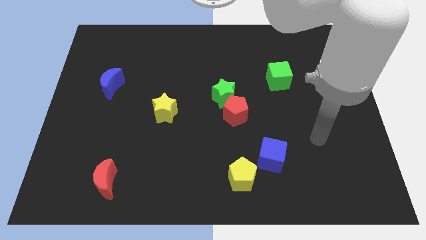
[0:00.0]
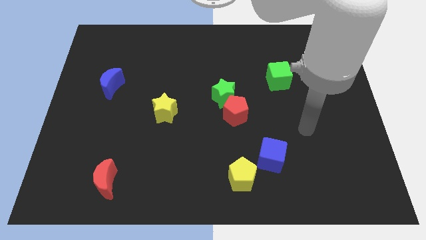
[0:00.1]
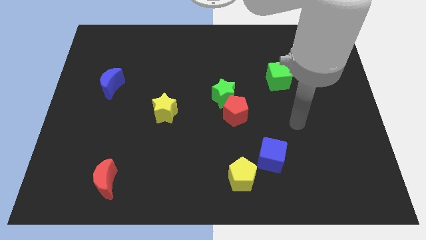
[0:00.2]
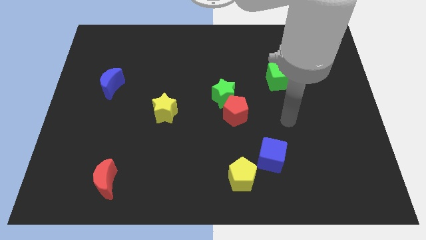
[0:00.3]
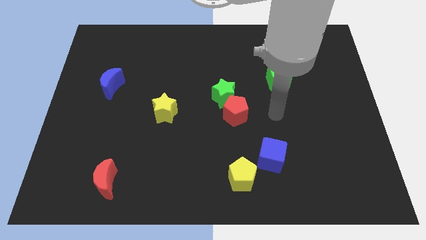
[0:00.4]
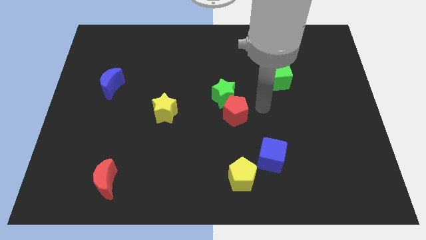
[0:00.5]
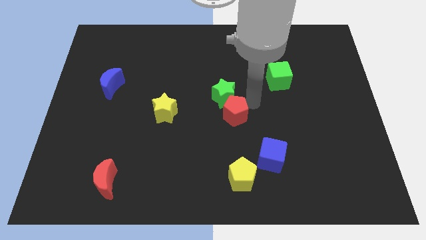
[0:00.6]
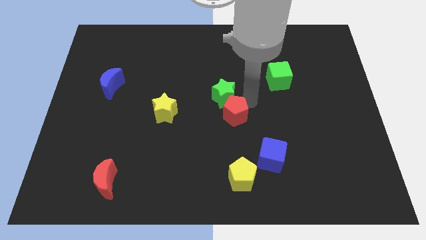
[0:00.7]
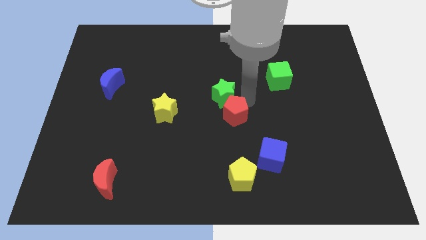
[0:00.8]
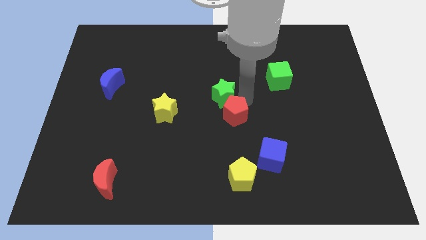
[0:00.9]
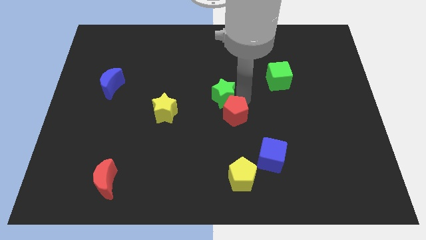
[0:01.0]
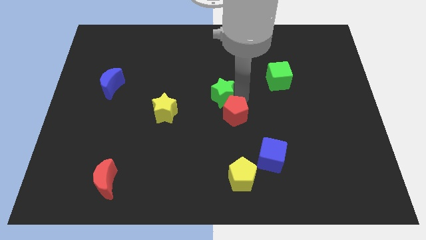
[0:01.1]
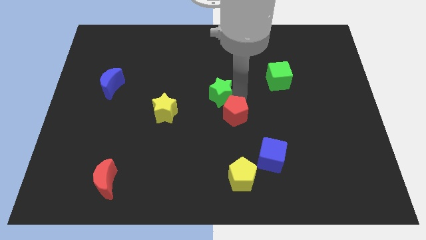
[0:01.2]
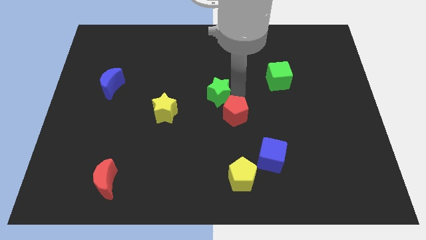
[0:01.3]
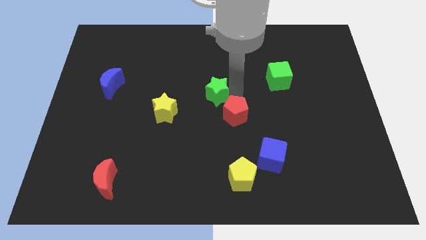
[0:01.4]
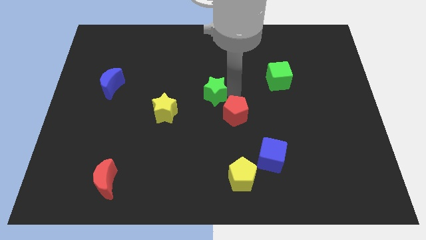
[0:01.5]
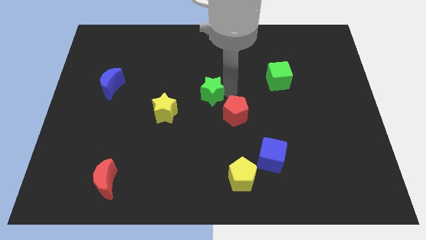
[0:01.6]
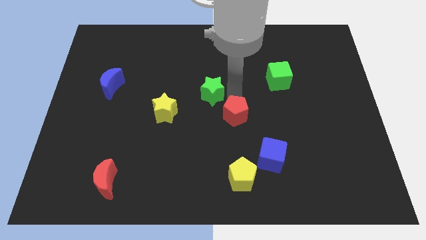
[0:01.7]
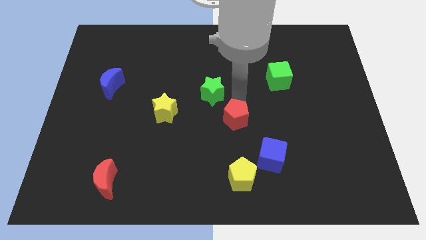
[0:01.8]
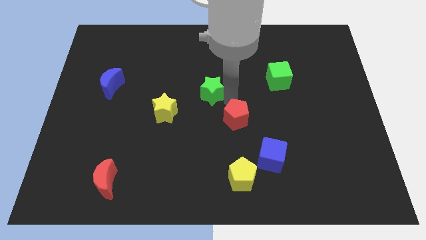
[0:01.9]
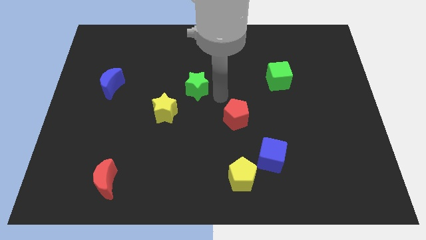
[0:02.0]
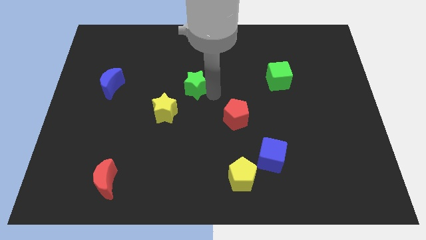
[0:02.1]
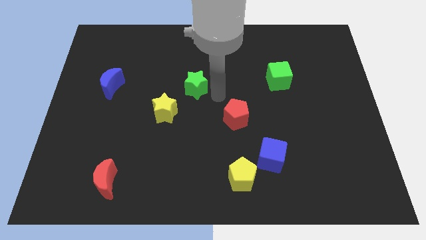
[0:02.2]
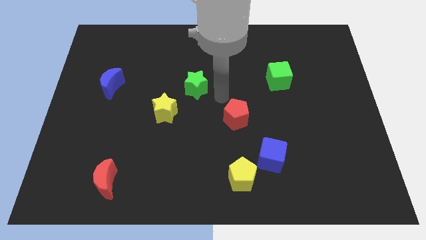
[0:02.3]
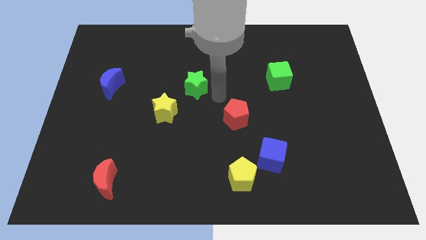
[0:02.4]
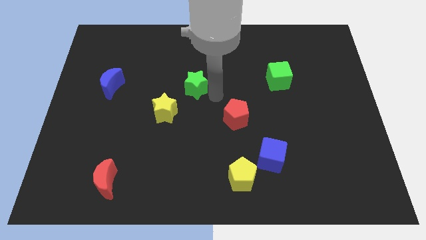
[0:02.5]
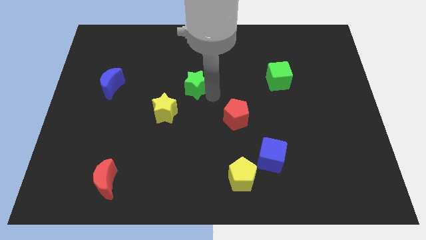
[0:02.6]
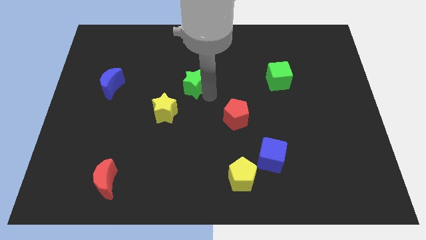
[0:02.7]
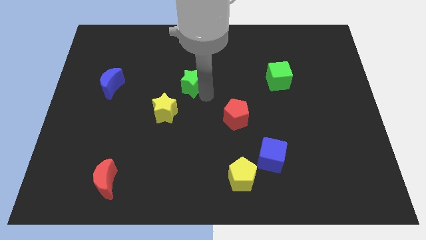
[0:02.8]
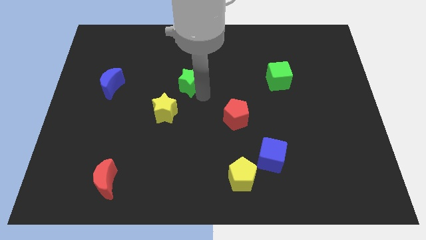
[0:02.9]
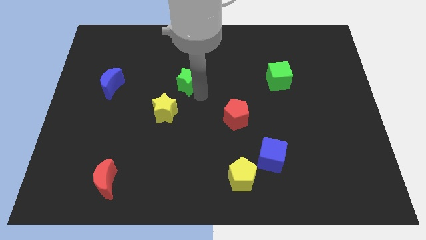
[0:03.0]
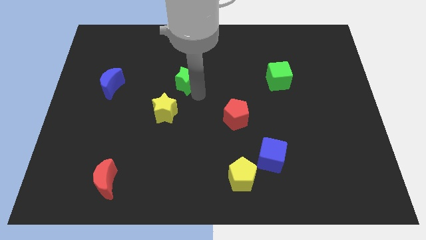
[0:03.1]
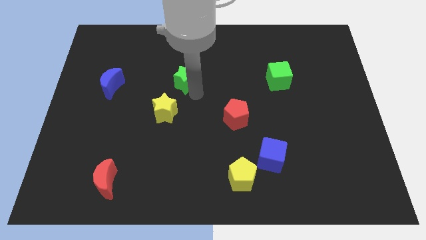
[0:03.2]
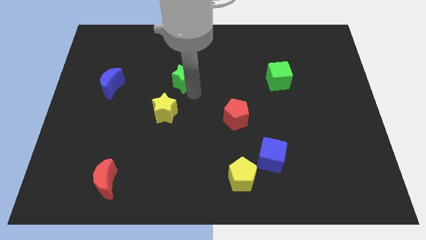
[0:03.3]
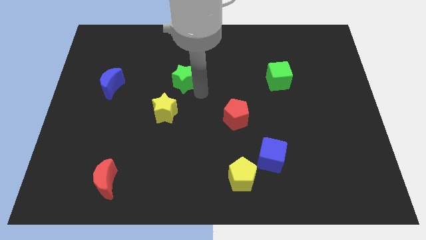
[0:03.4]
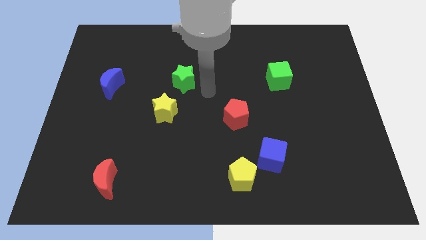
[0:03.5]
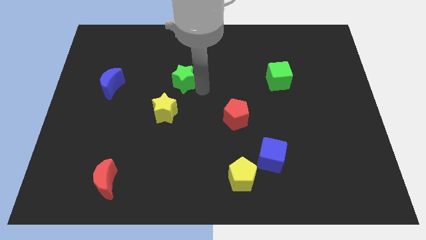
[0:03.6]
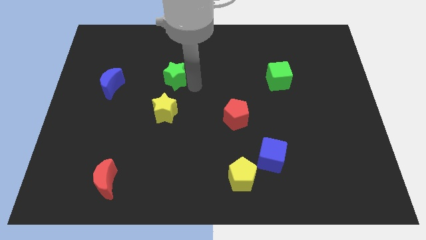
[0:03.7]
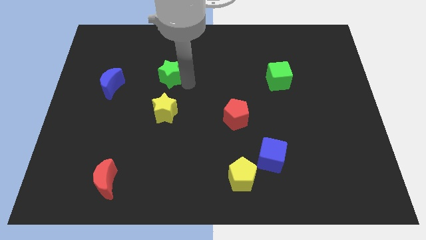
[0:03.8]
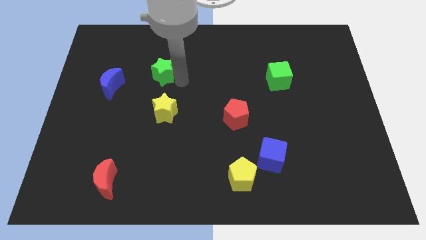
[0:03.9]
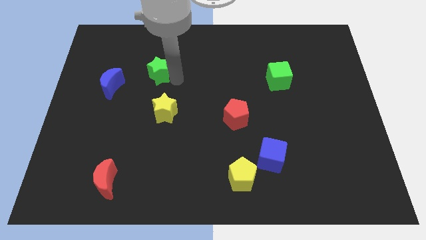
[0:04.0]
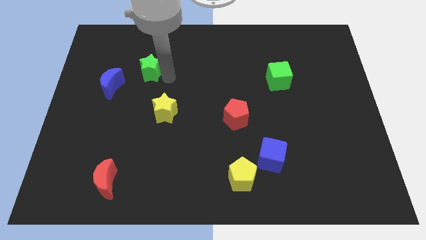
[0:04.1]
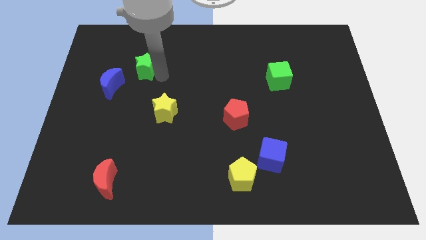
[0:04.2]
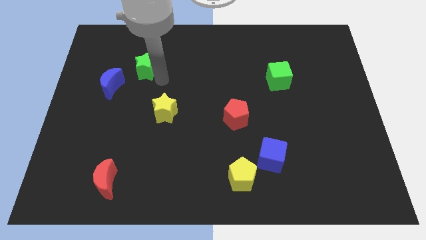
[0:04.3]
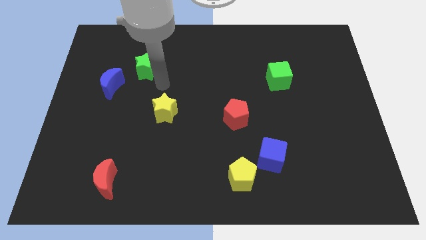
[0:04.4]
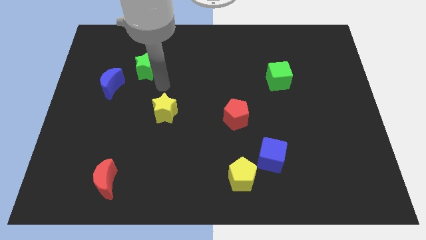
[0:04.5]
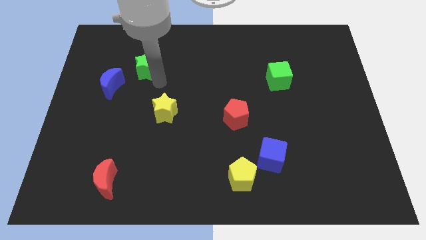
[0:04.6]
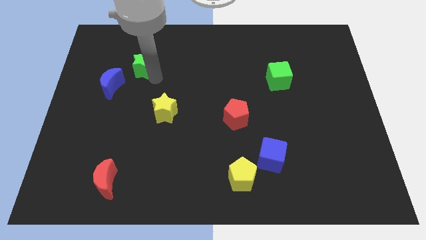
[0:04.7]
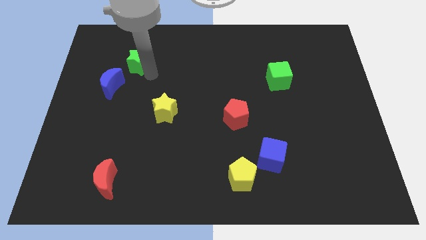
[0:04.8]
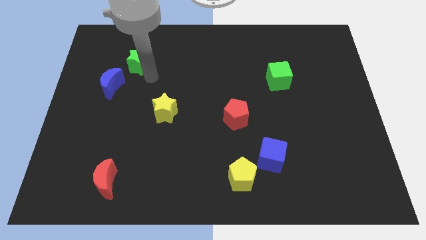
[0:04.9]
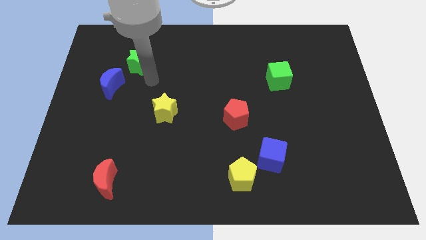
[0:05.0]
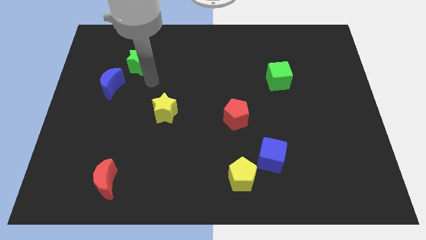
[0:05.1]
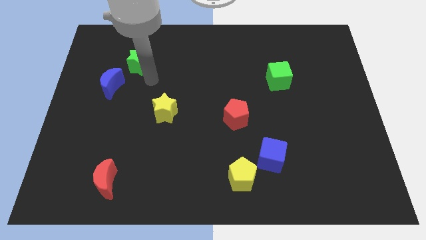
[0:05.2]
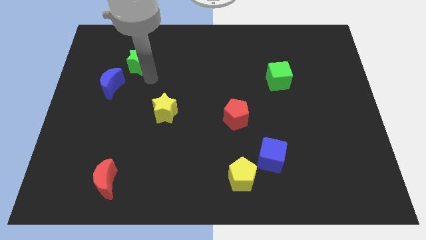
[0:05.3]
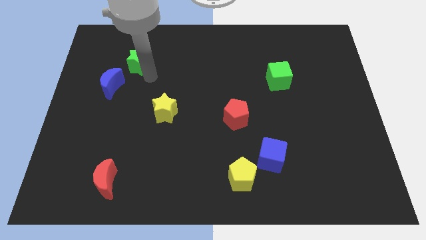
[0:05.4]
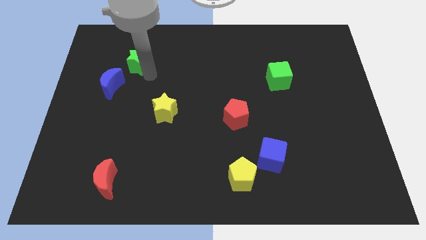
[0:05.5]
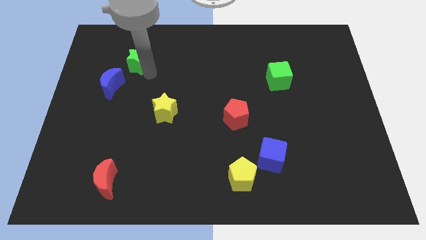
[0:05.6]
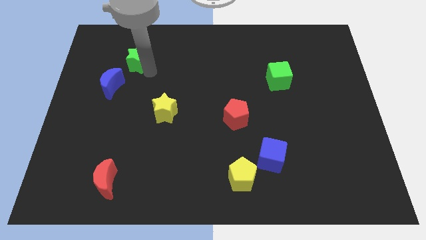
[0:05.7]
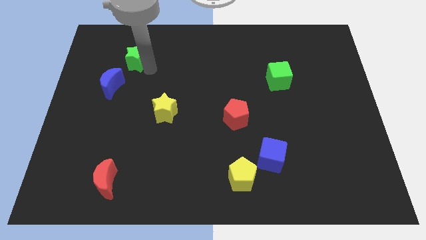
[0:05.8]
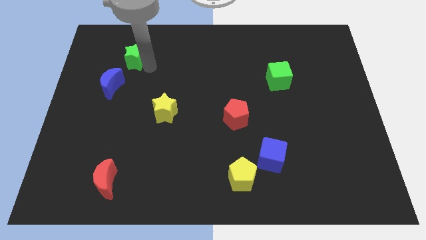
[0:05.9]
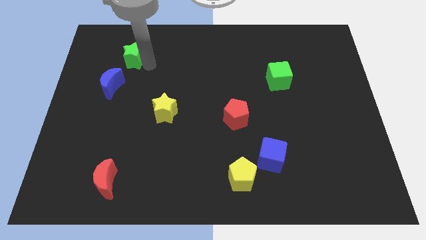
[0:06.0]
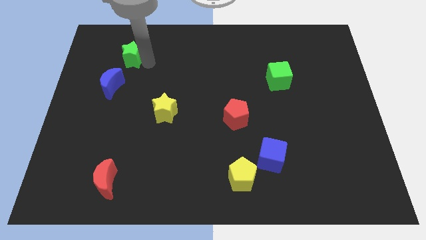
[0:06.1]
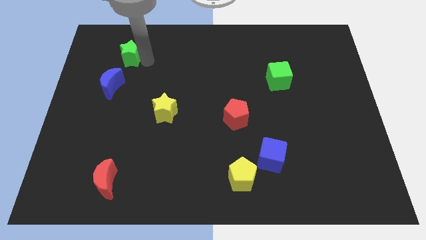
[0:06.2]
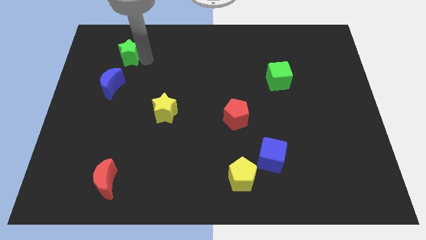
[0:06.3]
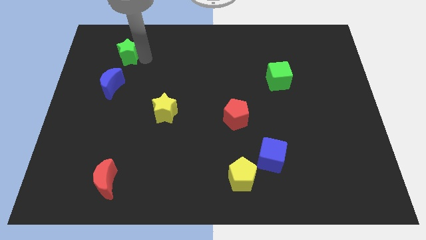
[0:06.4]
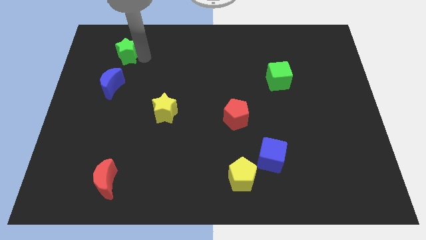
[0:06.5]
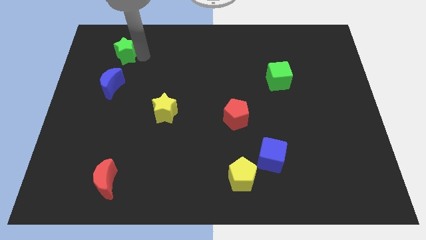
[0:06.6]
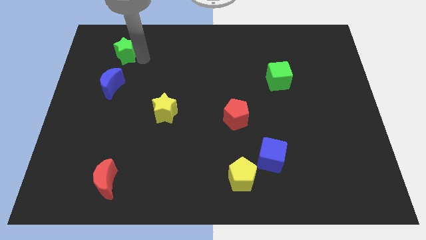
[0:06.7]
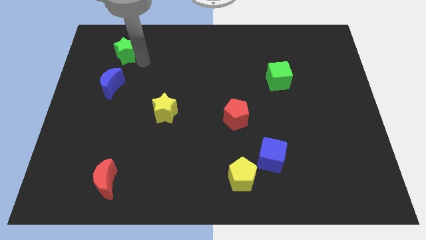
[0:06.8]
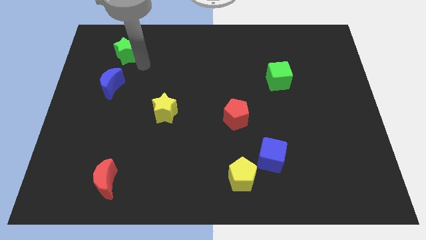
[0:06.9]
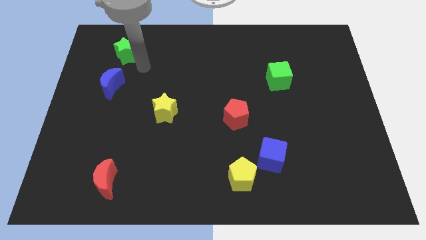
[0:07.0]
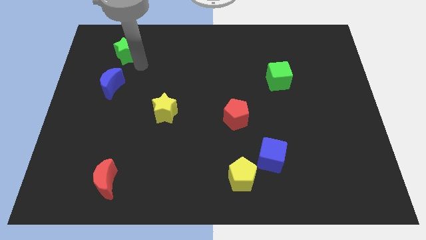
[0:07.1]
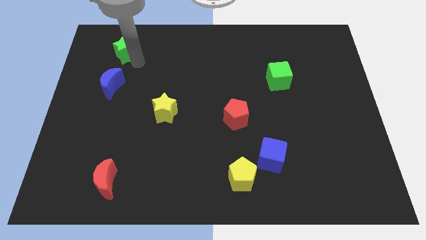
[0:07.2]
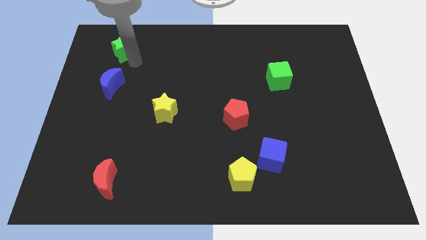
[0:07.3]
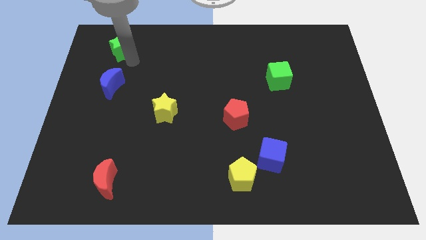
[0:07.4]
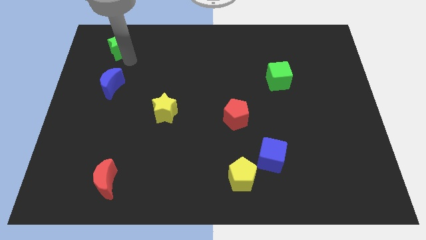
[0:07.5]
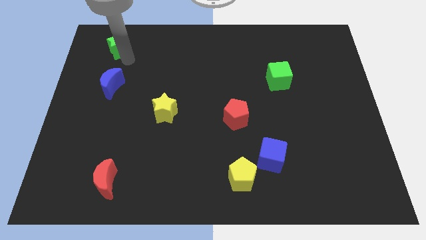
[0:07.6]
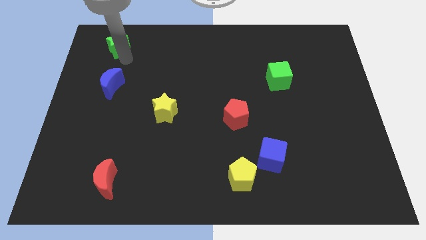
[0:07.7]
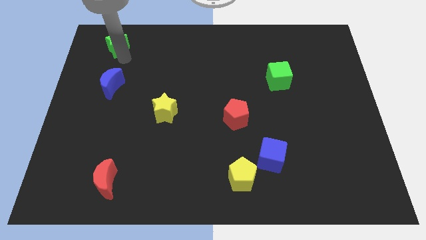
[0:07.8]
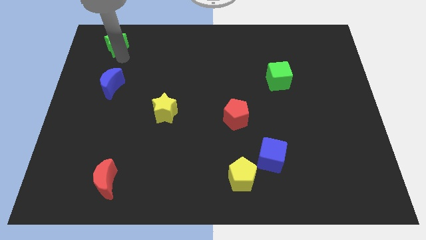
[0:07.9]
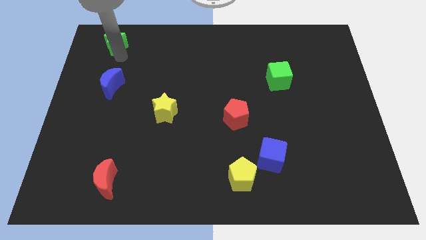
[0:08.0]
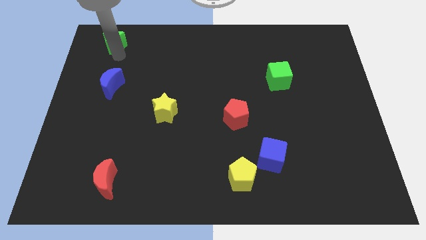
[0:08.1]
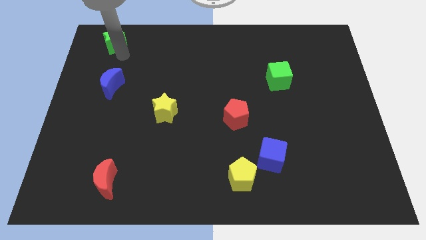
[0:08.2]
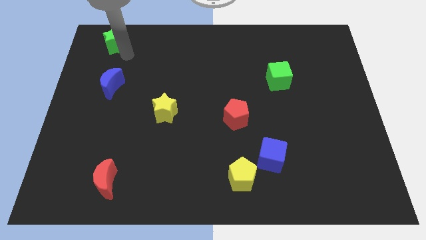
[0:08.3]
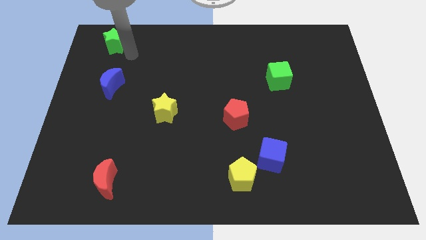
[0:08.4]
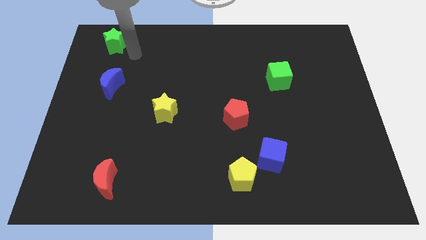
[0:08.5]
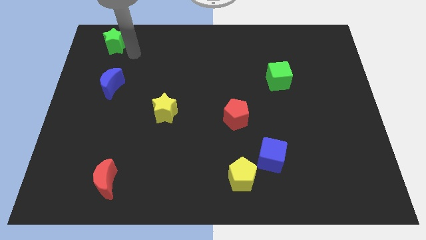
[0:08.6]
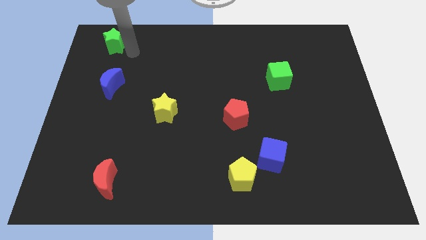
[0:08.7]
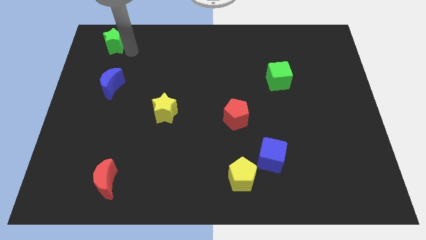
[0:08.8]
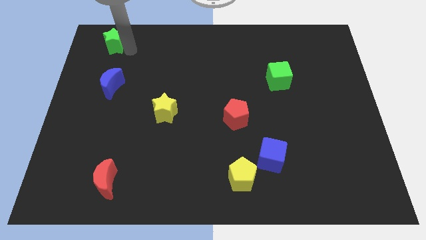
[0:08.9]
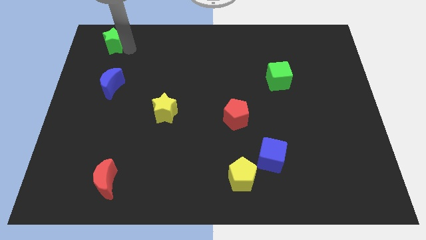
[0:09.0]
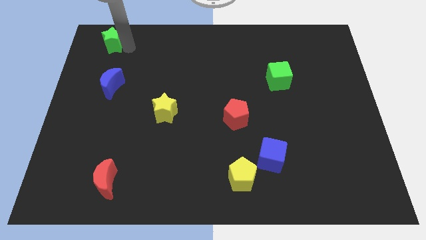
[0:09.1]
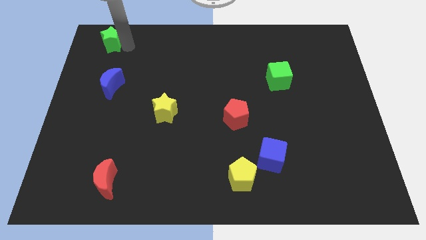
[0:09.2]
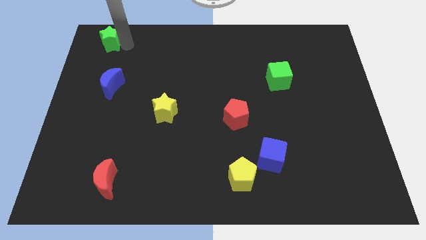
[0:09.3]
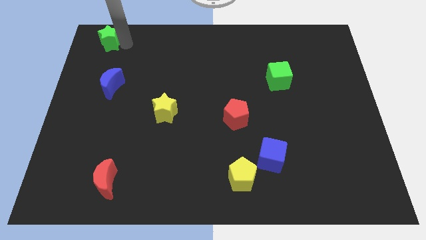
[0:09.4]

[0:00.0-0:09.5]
move the green star to the top left corner
